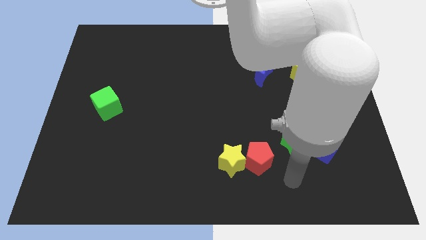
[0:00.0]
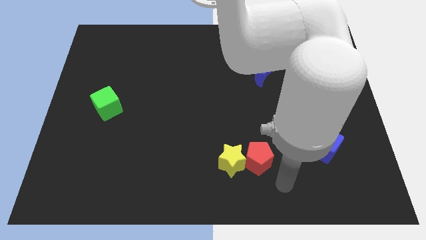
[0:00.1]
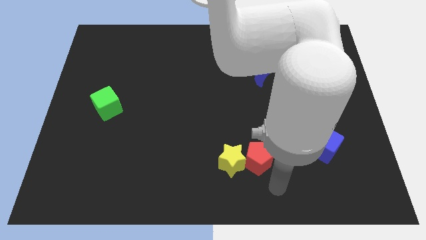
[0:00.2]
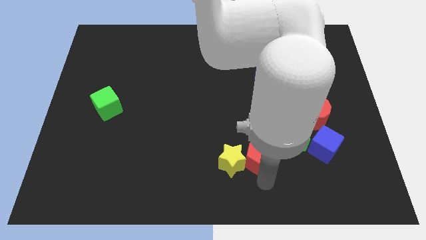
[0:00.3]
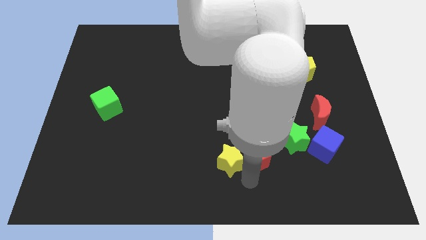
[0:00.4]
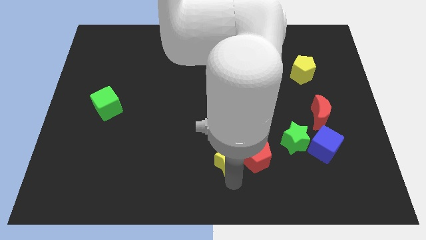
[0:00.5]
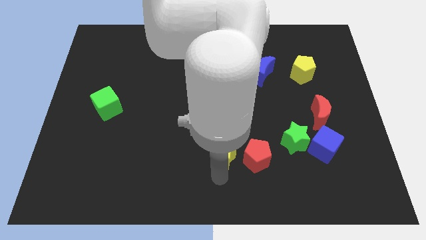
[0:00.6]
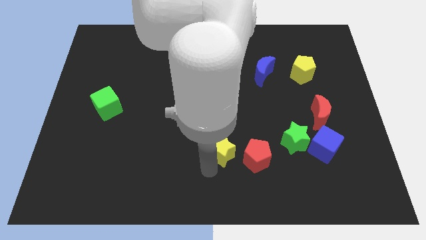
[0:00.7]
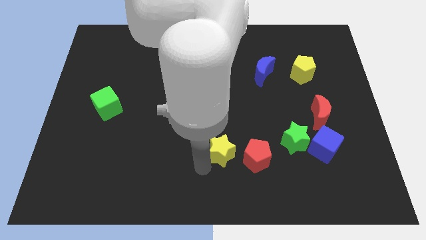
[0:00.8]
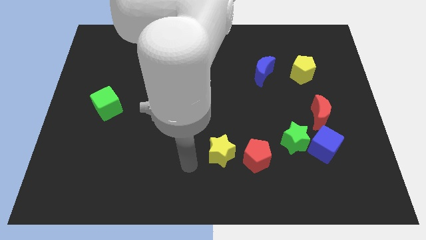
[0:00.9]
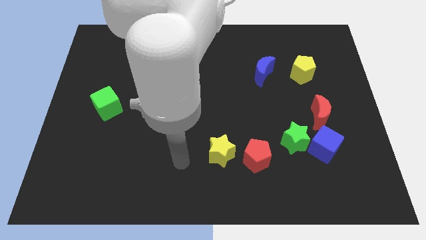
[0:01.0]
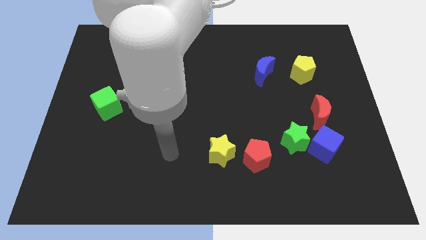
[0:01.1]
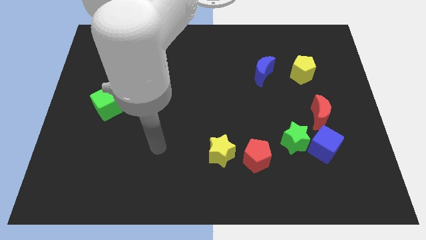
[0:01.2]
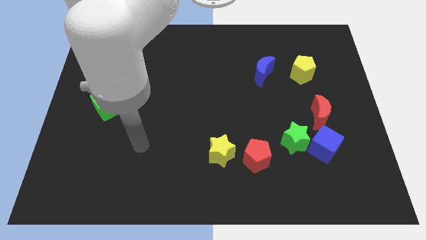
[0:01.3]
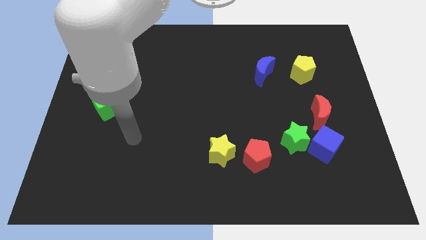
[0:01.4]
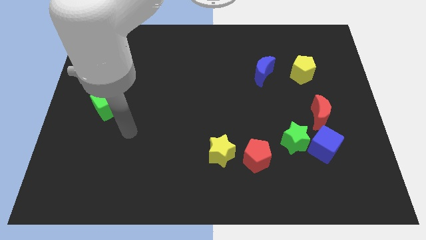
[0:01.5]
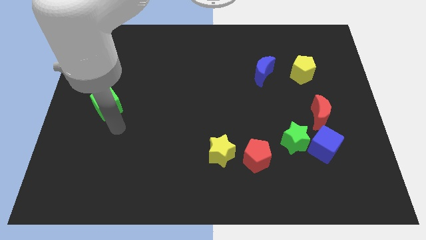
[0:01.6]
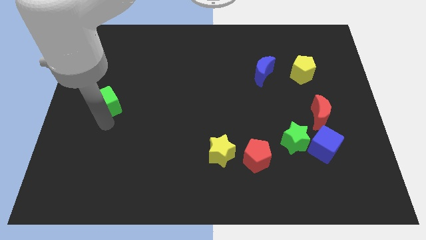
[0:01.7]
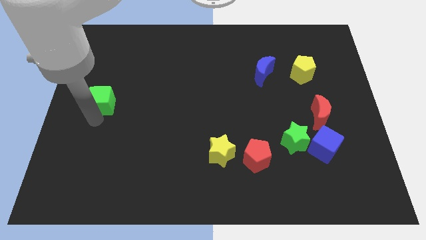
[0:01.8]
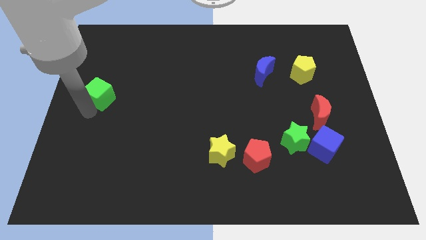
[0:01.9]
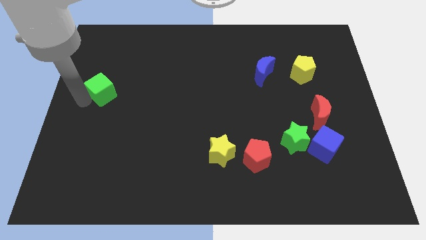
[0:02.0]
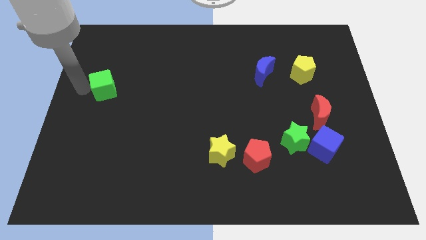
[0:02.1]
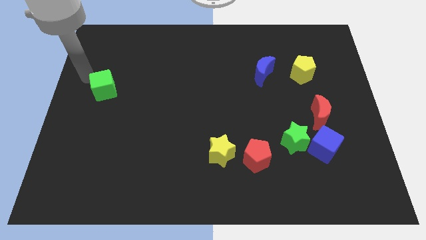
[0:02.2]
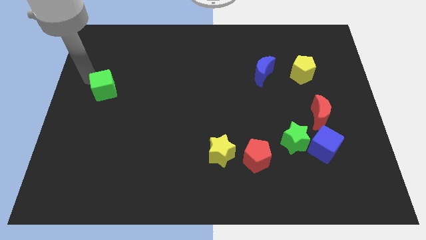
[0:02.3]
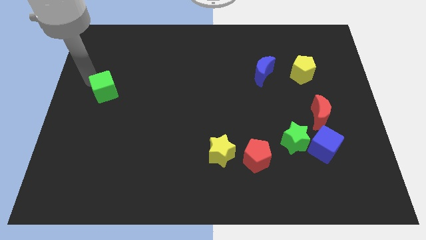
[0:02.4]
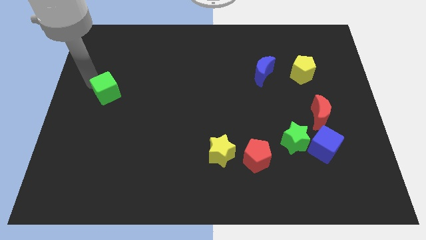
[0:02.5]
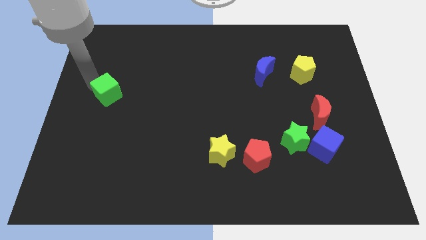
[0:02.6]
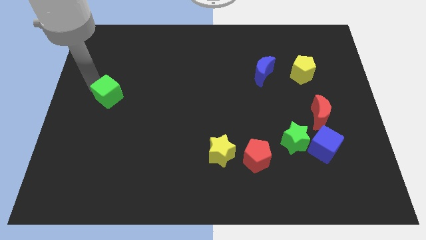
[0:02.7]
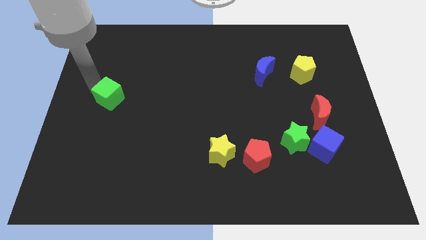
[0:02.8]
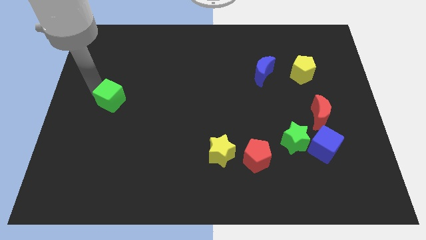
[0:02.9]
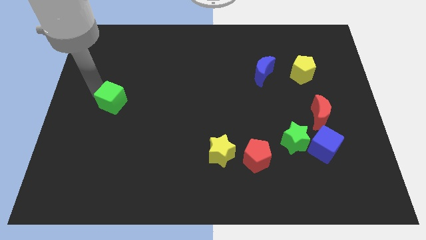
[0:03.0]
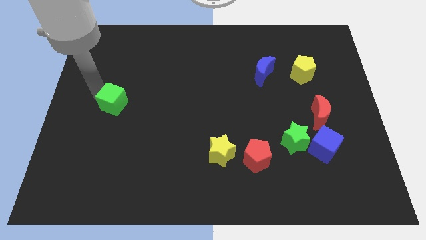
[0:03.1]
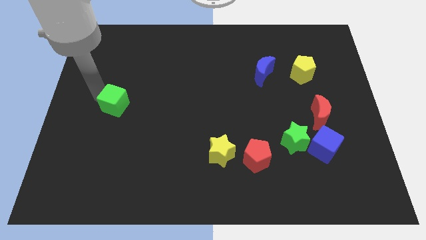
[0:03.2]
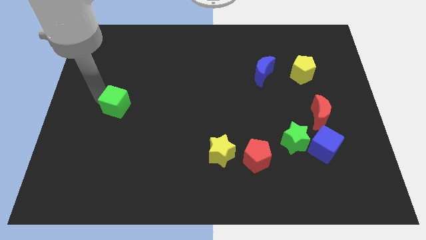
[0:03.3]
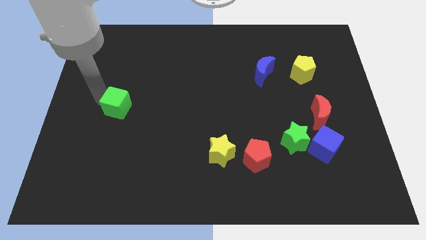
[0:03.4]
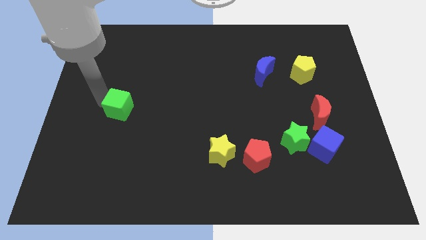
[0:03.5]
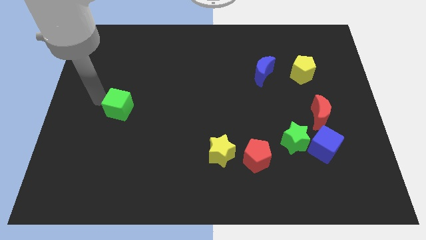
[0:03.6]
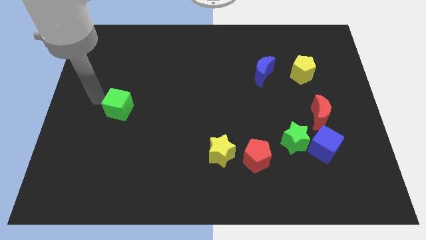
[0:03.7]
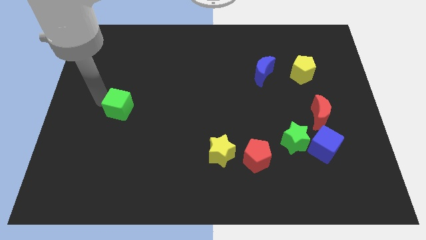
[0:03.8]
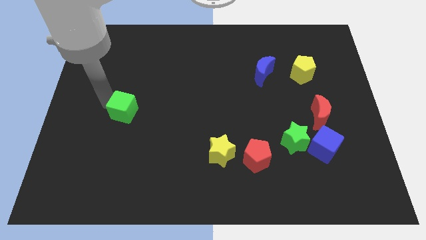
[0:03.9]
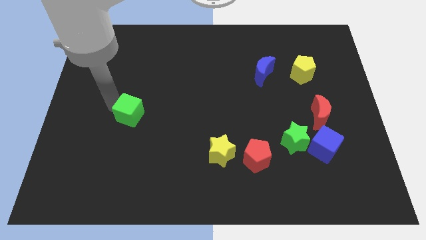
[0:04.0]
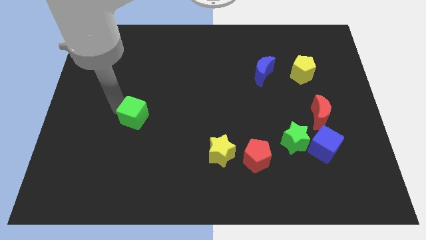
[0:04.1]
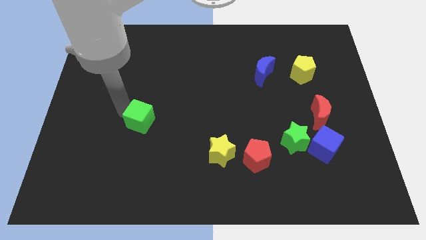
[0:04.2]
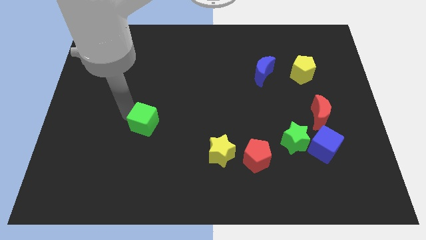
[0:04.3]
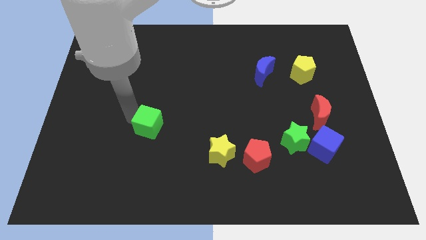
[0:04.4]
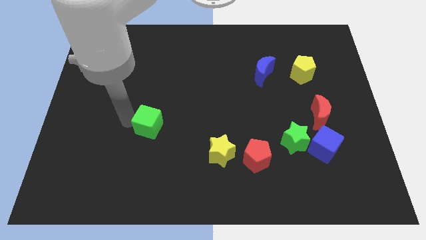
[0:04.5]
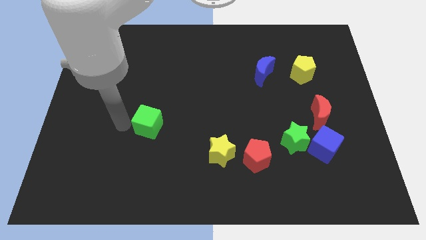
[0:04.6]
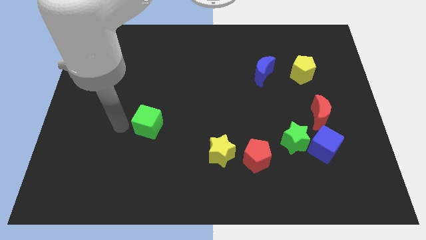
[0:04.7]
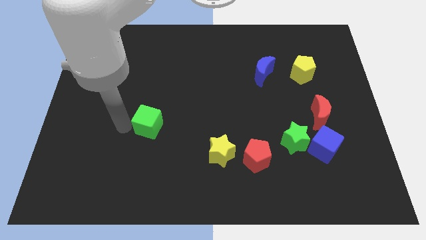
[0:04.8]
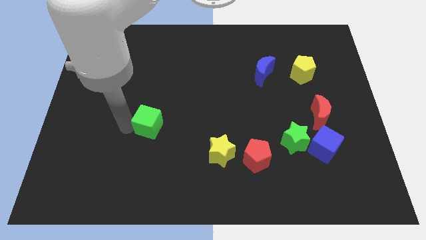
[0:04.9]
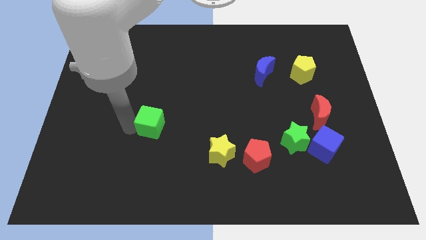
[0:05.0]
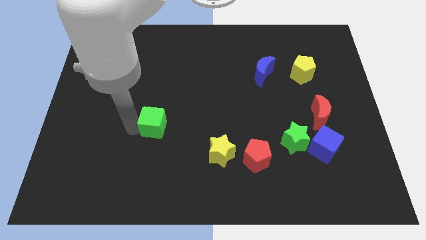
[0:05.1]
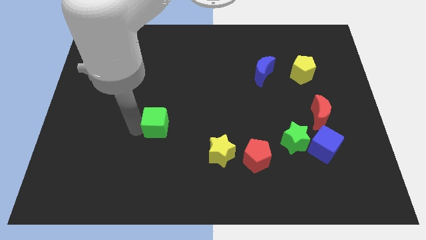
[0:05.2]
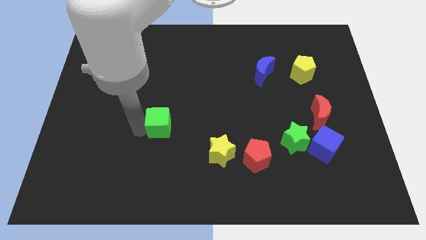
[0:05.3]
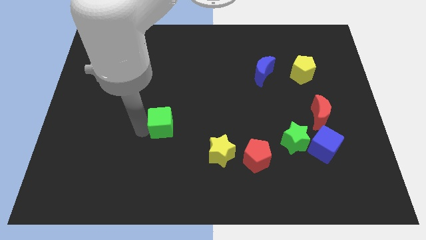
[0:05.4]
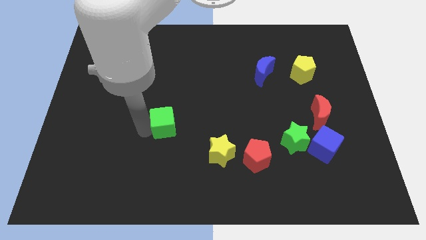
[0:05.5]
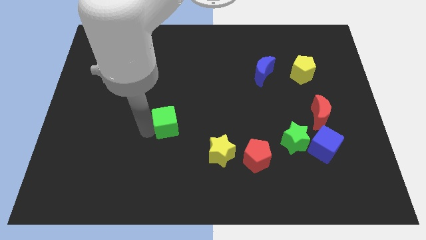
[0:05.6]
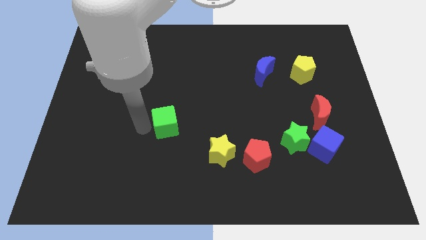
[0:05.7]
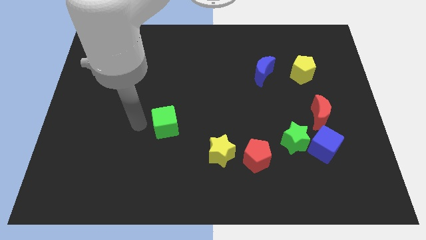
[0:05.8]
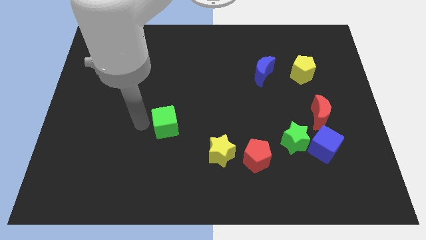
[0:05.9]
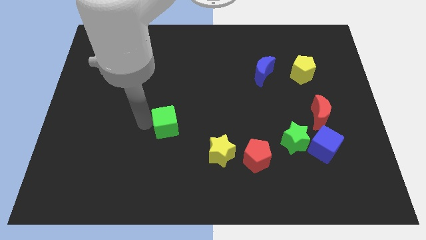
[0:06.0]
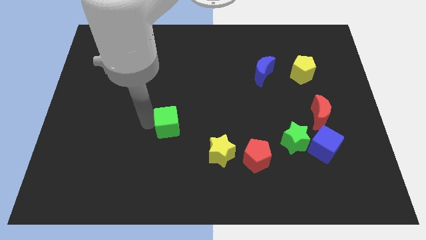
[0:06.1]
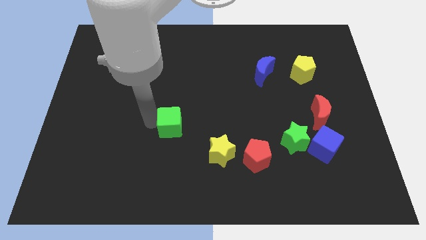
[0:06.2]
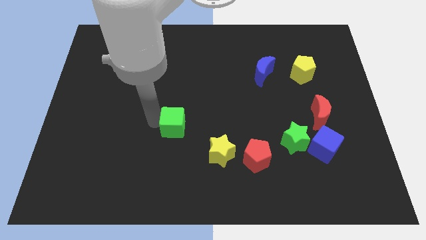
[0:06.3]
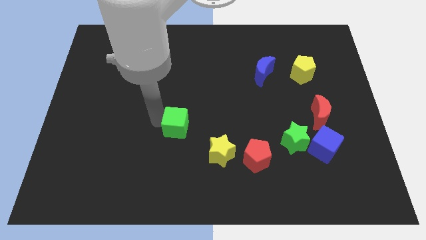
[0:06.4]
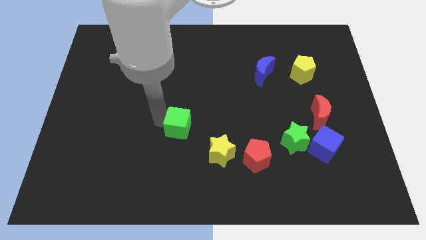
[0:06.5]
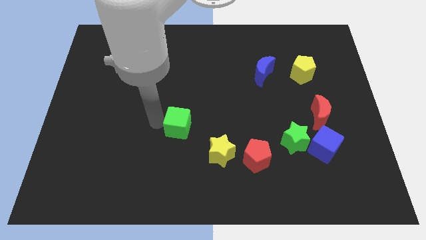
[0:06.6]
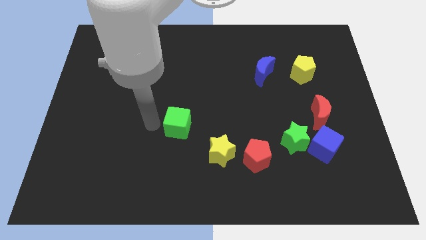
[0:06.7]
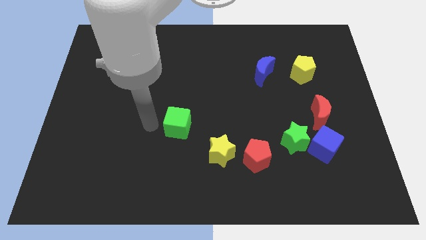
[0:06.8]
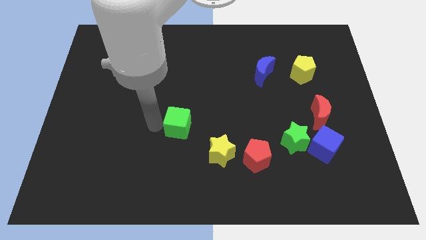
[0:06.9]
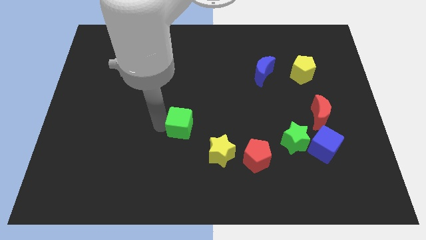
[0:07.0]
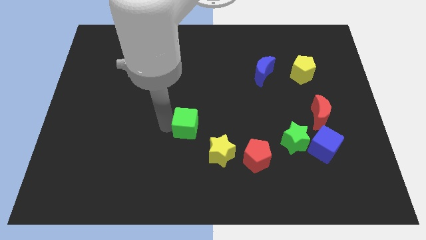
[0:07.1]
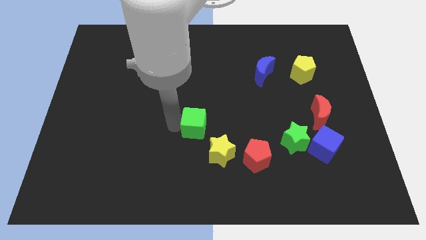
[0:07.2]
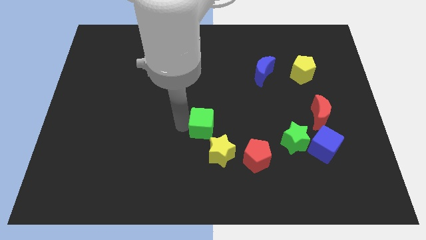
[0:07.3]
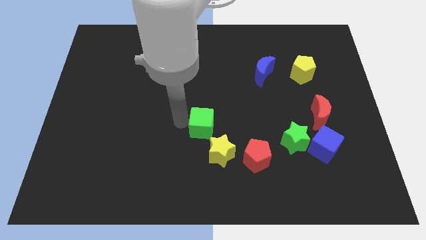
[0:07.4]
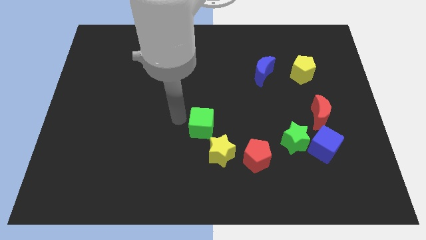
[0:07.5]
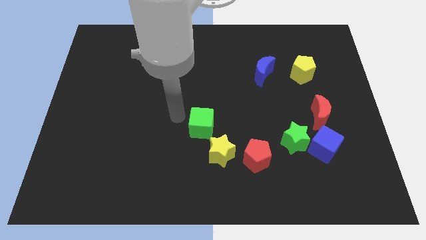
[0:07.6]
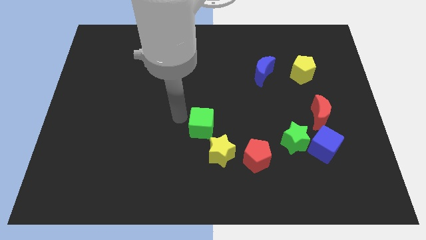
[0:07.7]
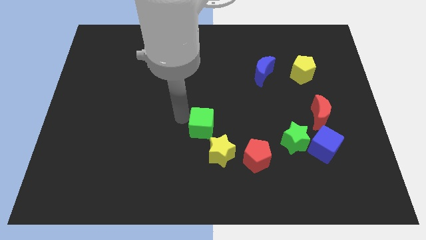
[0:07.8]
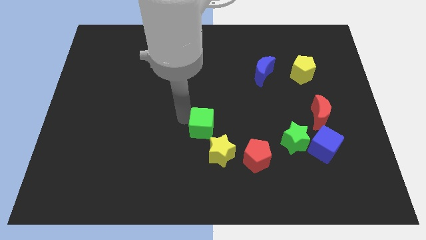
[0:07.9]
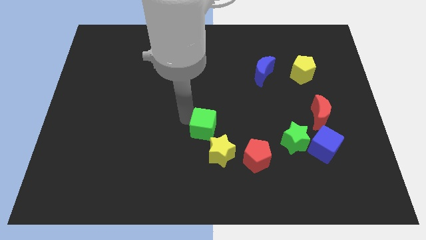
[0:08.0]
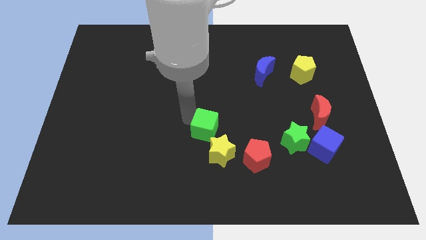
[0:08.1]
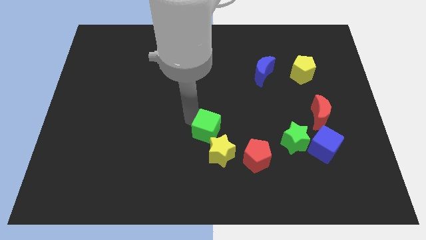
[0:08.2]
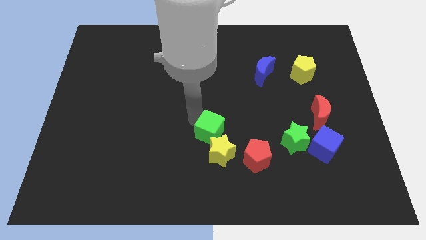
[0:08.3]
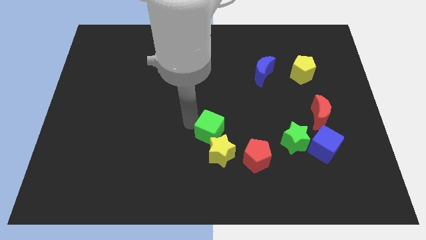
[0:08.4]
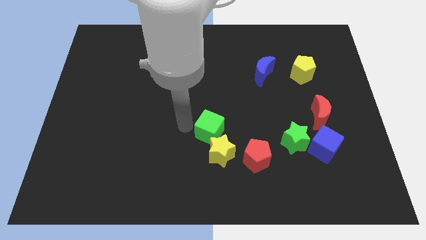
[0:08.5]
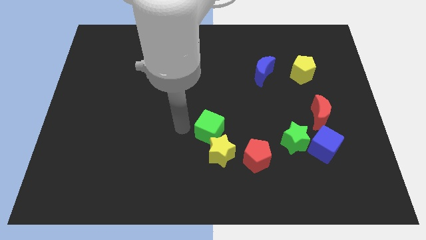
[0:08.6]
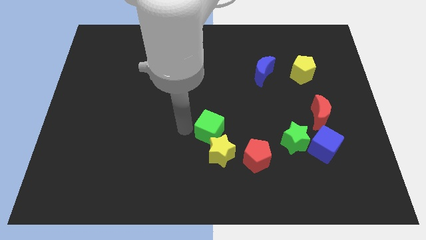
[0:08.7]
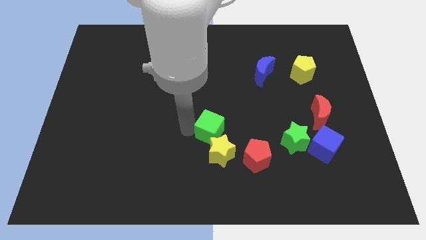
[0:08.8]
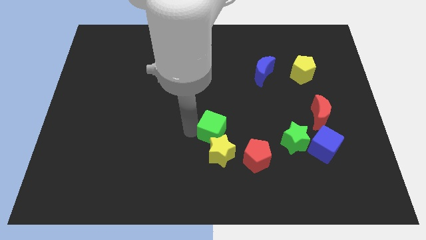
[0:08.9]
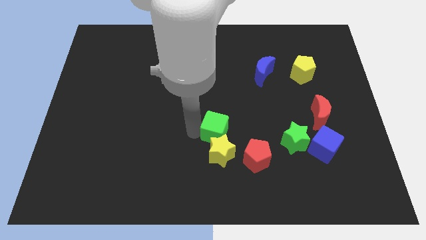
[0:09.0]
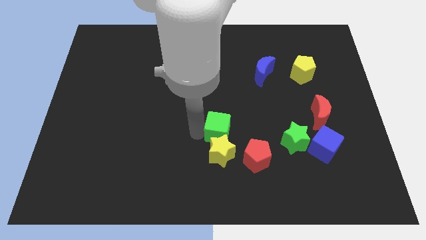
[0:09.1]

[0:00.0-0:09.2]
push the green cube to the top right of the yellow star
